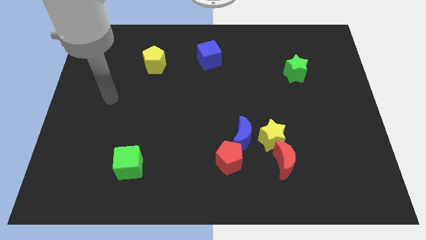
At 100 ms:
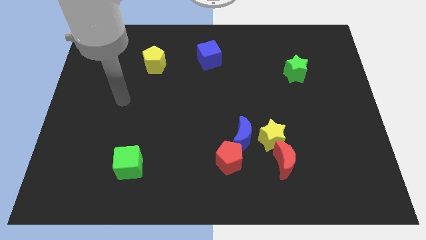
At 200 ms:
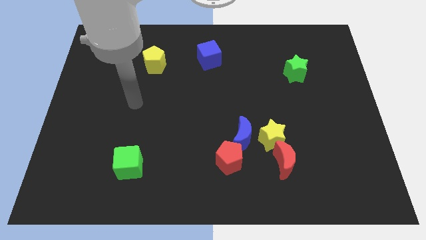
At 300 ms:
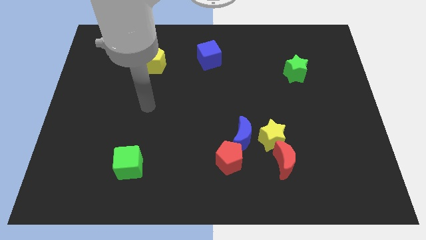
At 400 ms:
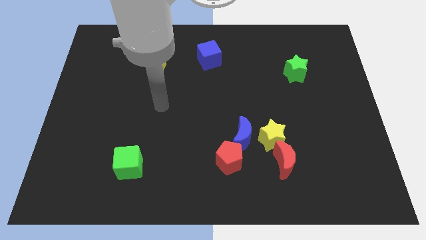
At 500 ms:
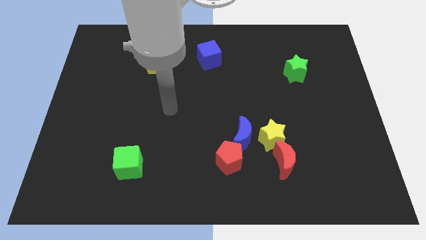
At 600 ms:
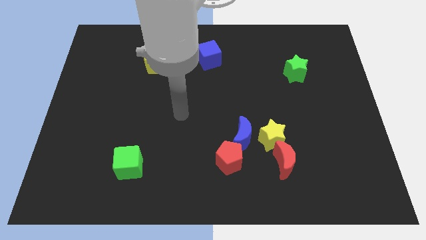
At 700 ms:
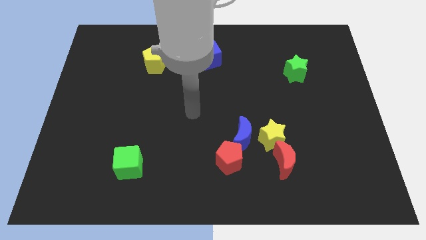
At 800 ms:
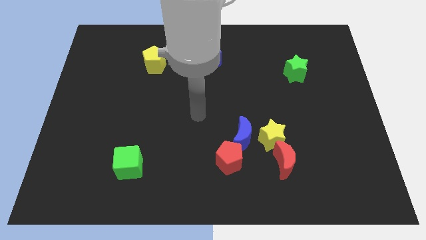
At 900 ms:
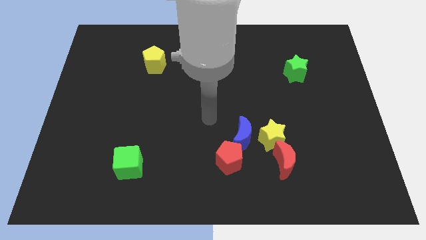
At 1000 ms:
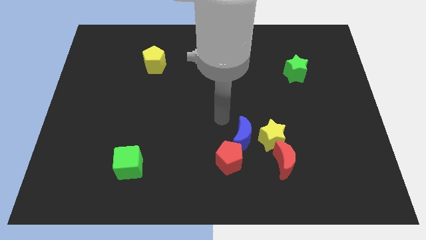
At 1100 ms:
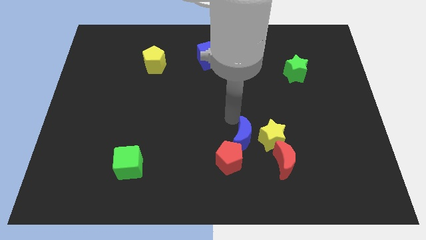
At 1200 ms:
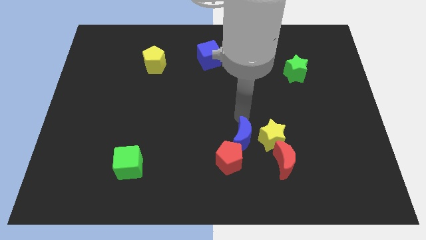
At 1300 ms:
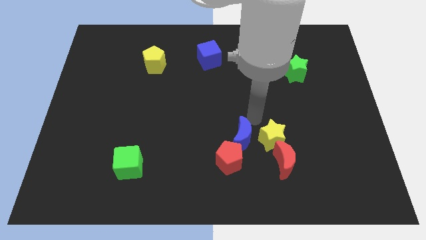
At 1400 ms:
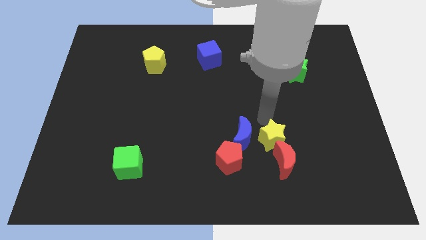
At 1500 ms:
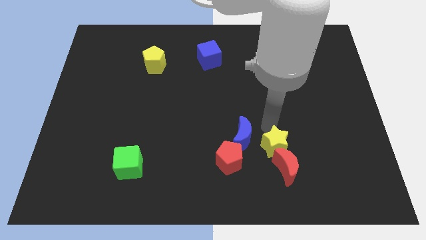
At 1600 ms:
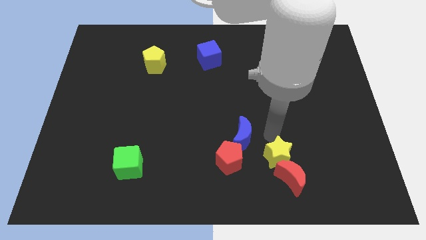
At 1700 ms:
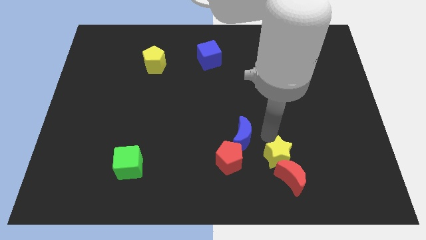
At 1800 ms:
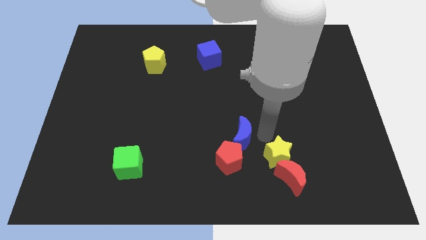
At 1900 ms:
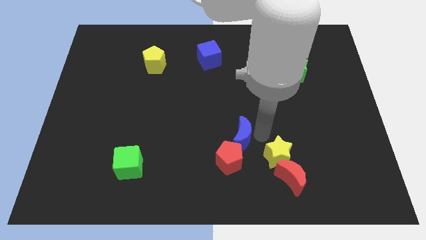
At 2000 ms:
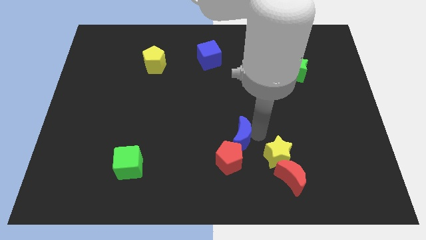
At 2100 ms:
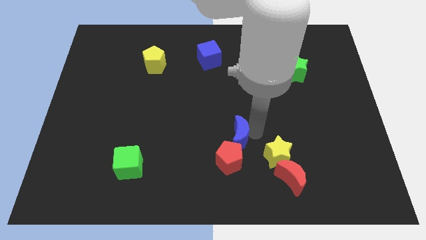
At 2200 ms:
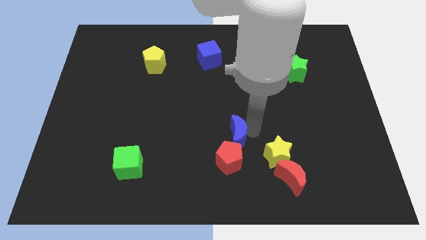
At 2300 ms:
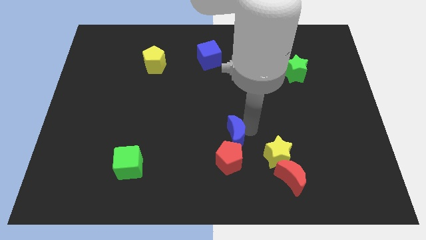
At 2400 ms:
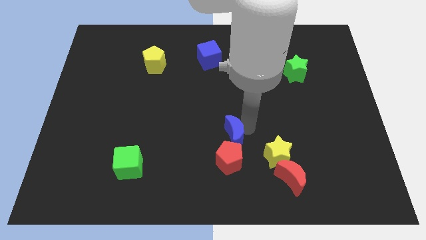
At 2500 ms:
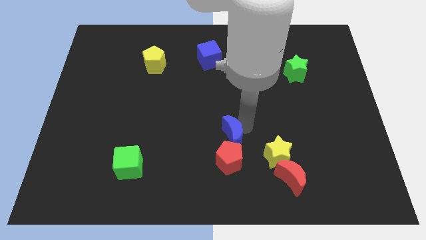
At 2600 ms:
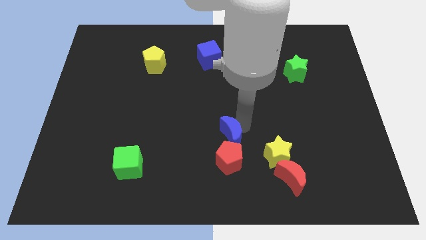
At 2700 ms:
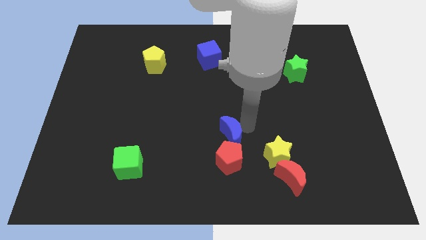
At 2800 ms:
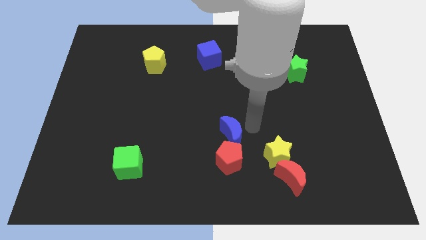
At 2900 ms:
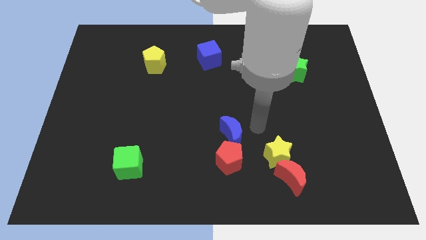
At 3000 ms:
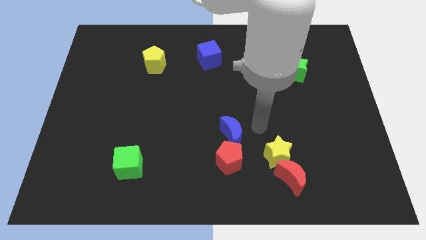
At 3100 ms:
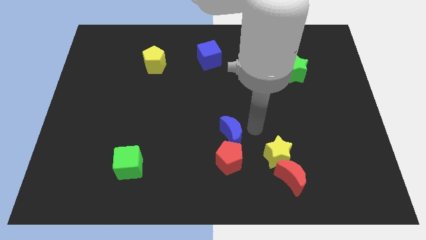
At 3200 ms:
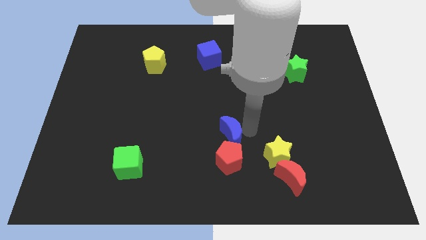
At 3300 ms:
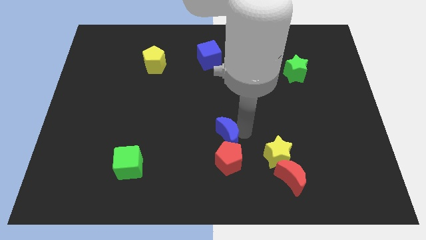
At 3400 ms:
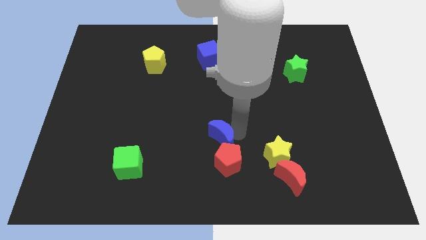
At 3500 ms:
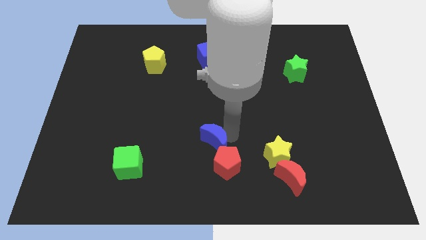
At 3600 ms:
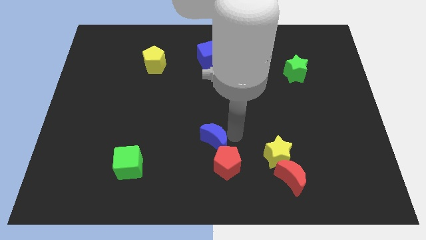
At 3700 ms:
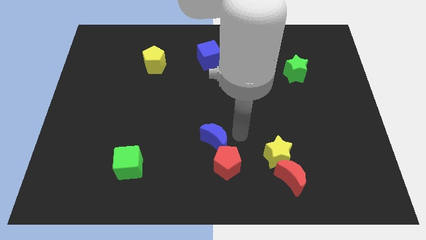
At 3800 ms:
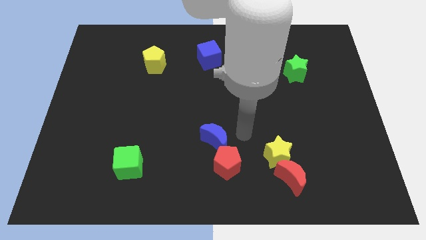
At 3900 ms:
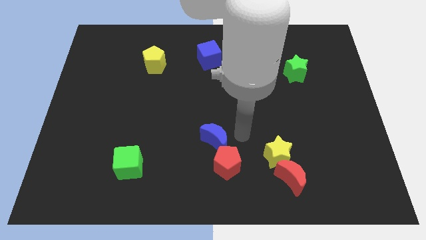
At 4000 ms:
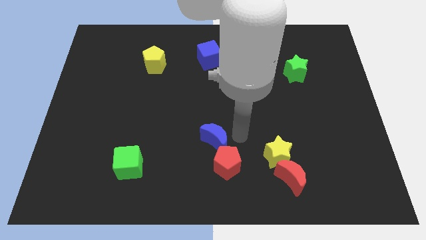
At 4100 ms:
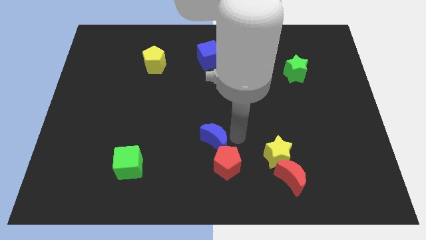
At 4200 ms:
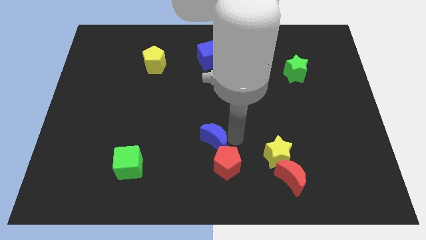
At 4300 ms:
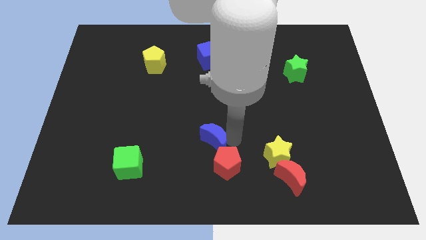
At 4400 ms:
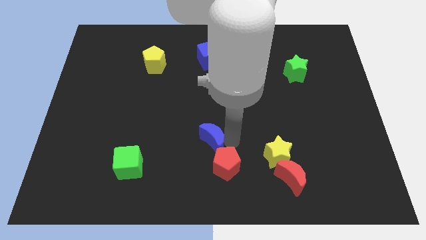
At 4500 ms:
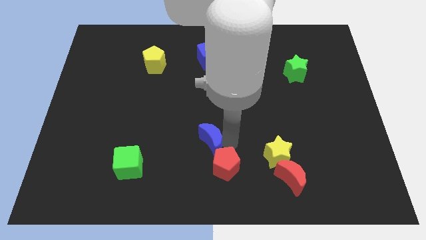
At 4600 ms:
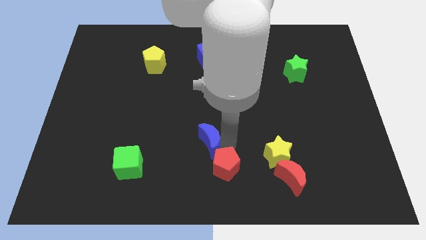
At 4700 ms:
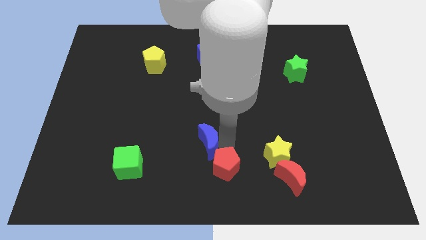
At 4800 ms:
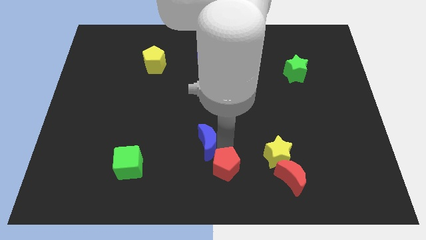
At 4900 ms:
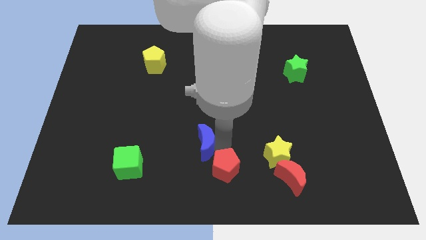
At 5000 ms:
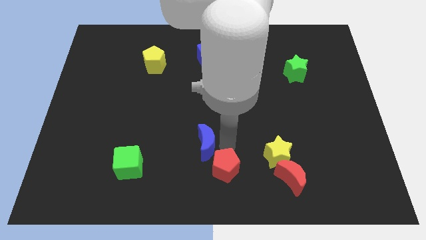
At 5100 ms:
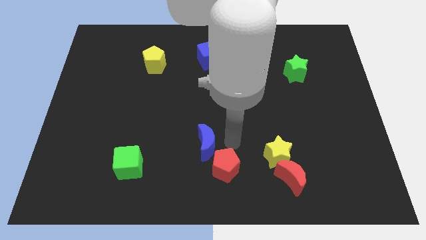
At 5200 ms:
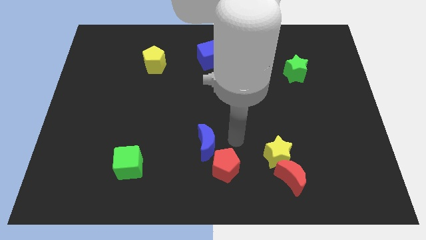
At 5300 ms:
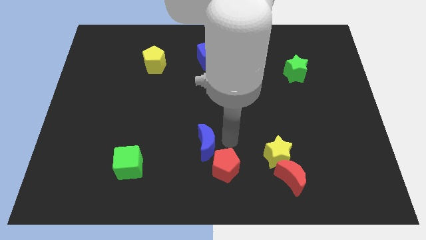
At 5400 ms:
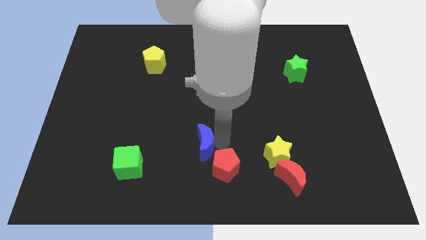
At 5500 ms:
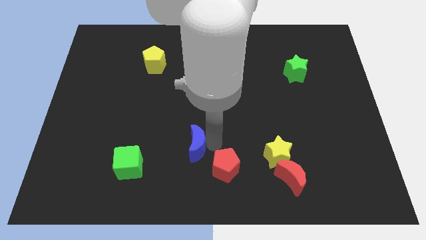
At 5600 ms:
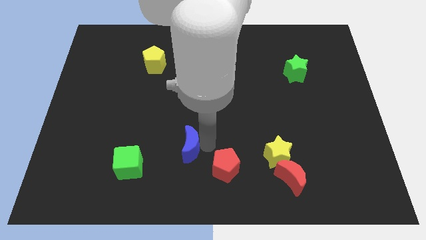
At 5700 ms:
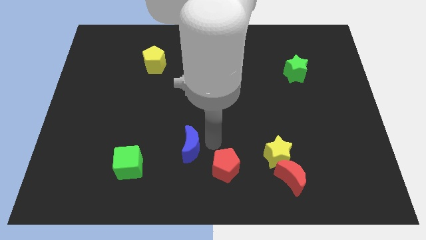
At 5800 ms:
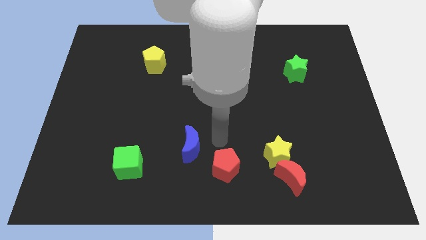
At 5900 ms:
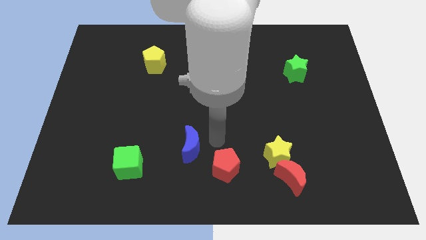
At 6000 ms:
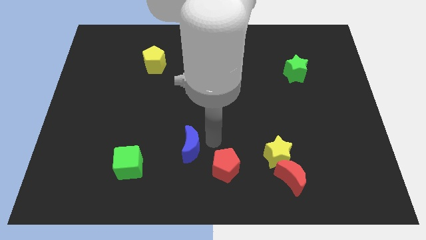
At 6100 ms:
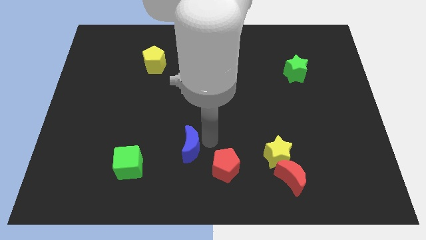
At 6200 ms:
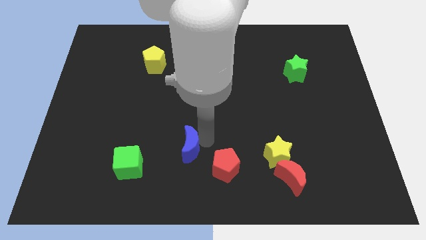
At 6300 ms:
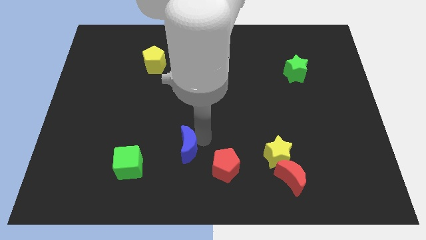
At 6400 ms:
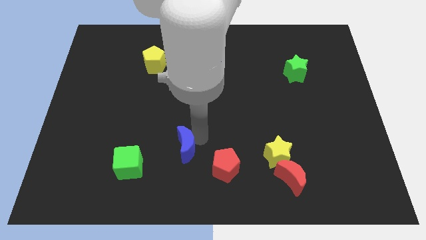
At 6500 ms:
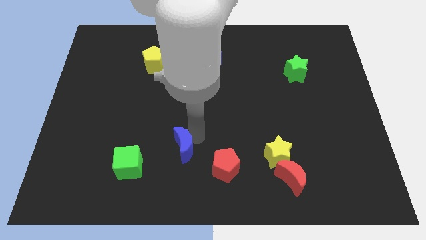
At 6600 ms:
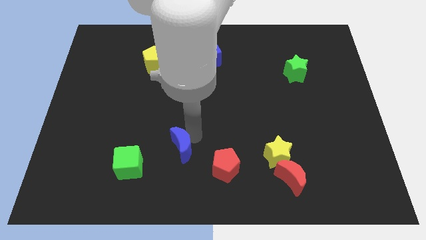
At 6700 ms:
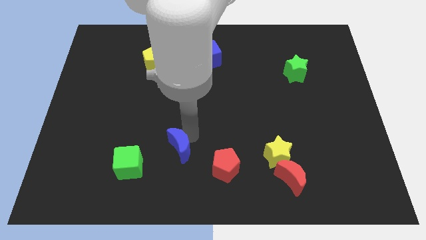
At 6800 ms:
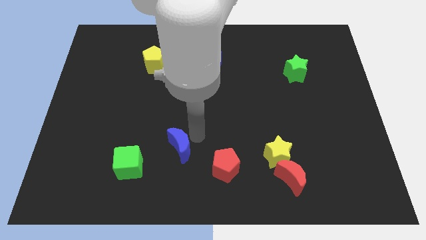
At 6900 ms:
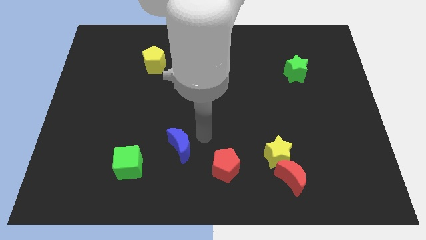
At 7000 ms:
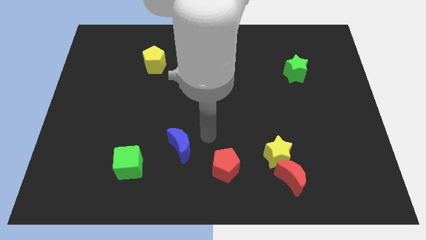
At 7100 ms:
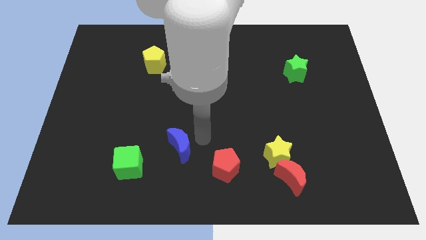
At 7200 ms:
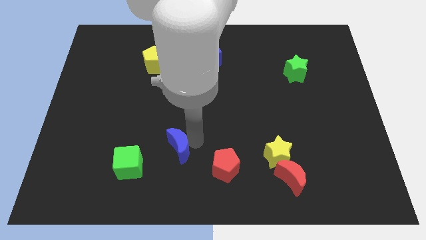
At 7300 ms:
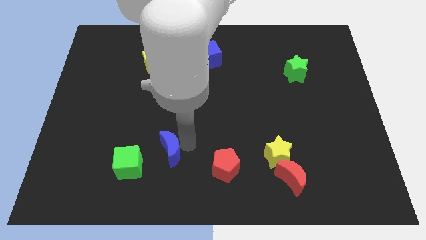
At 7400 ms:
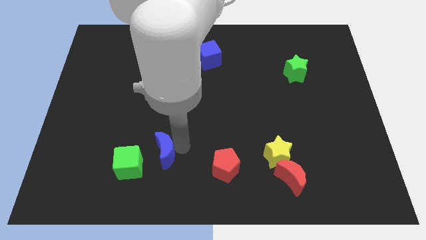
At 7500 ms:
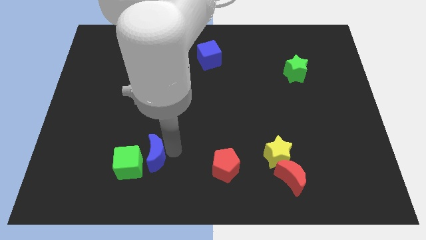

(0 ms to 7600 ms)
push the blue moon close to the green cube
